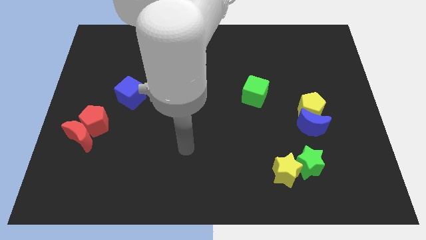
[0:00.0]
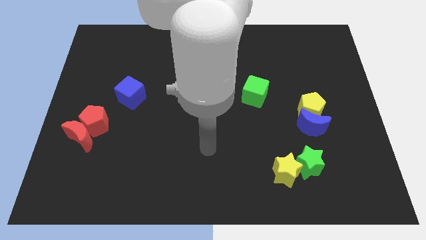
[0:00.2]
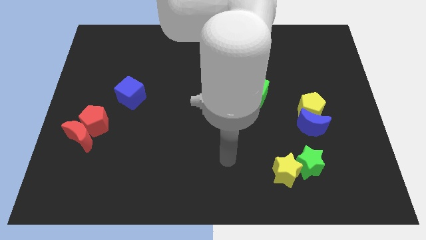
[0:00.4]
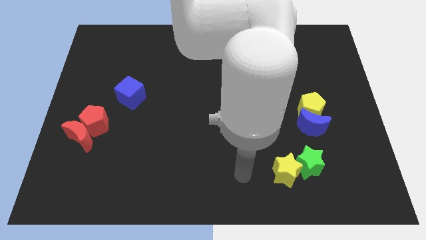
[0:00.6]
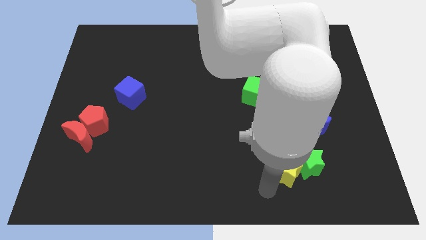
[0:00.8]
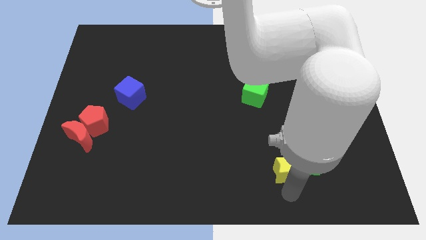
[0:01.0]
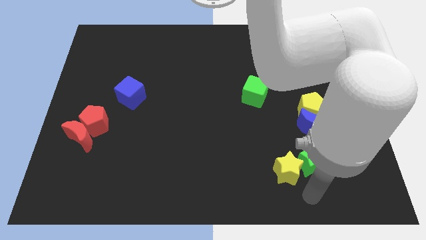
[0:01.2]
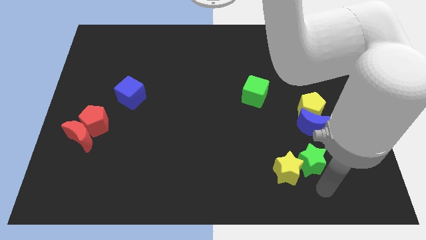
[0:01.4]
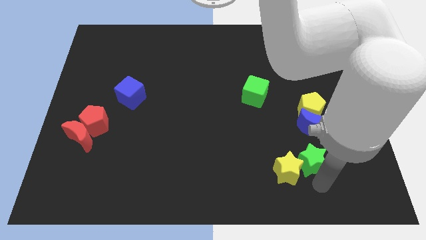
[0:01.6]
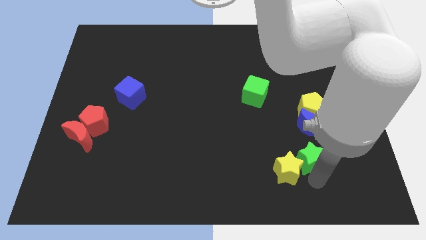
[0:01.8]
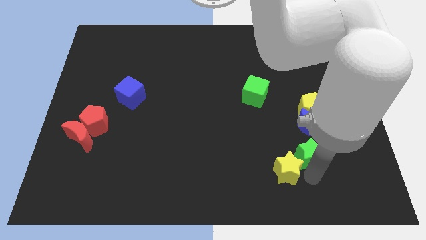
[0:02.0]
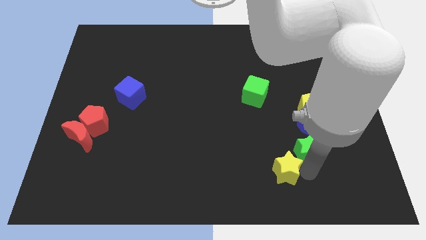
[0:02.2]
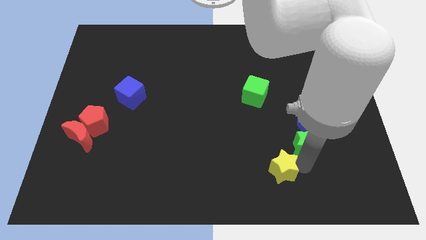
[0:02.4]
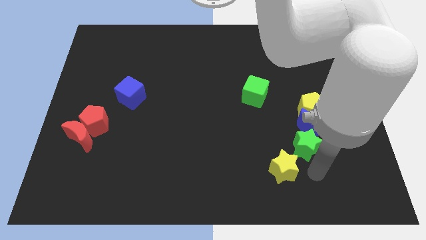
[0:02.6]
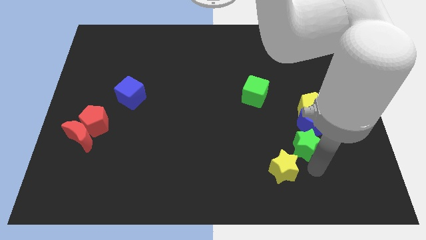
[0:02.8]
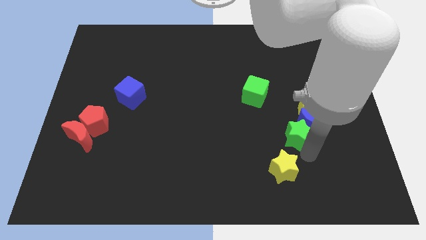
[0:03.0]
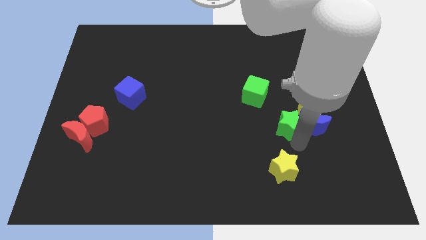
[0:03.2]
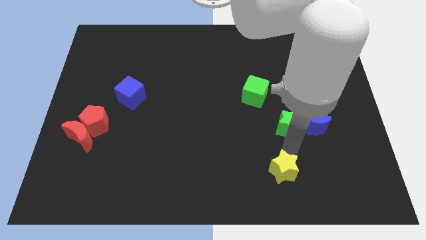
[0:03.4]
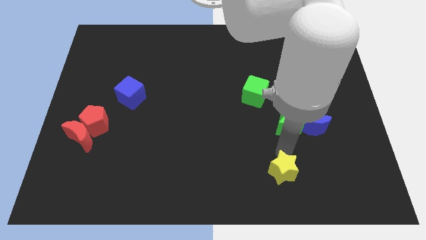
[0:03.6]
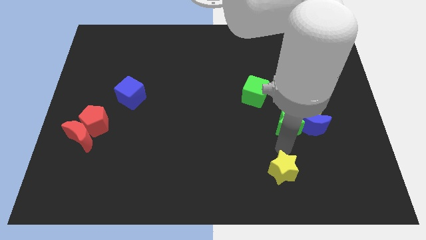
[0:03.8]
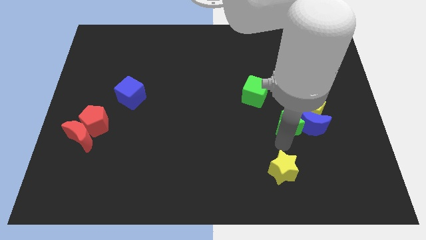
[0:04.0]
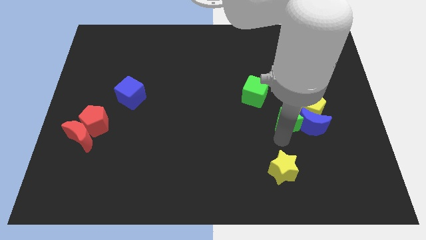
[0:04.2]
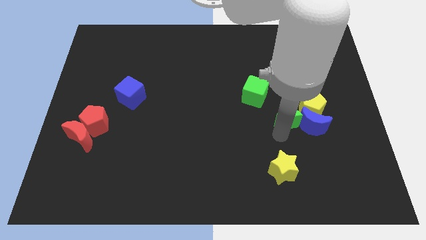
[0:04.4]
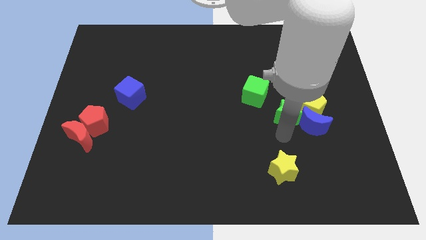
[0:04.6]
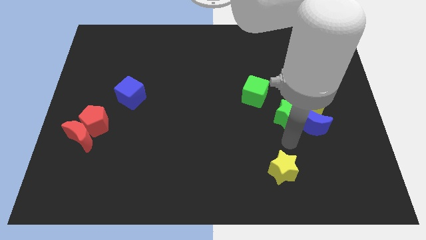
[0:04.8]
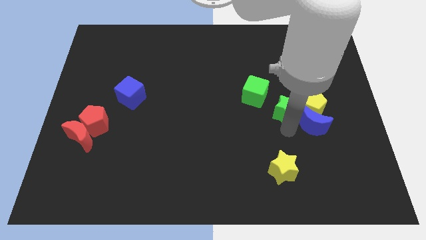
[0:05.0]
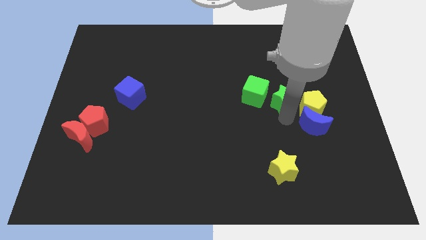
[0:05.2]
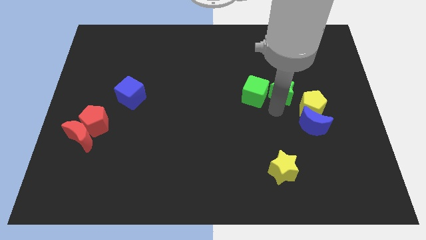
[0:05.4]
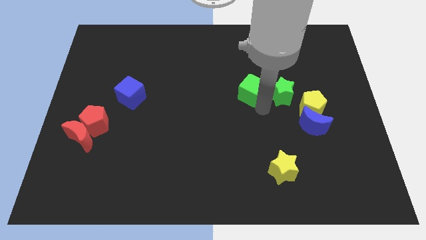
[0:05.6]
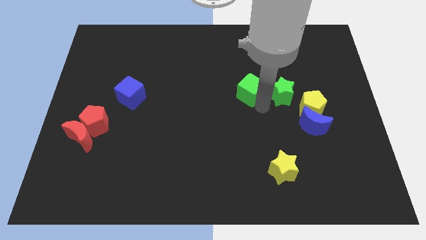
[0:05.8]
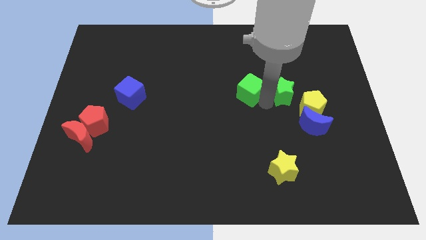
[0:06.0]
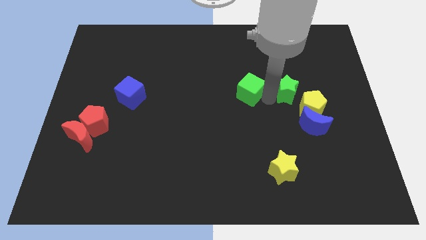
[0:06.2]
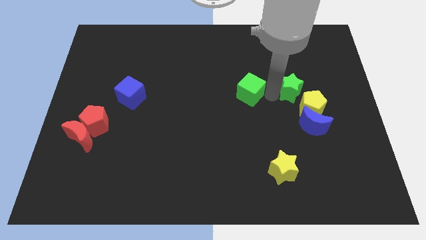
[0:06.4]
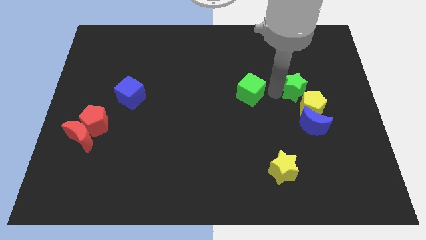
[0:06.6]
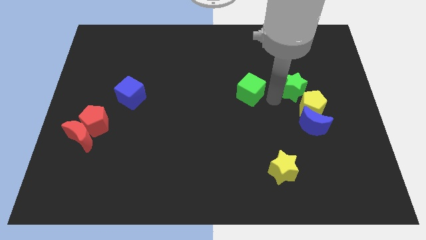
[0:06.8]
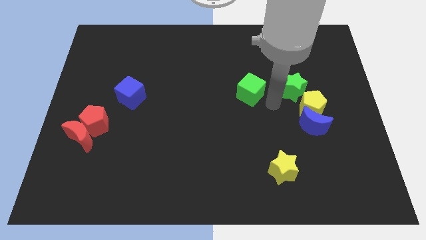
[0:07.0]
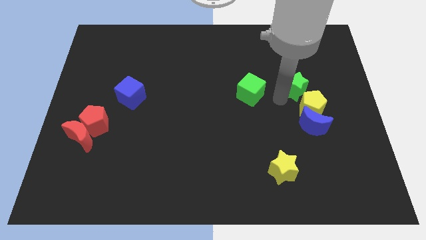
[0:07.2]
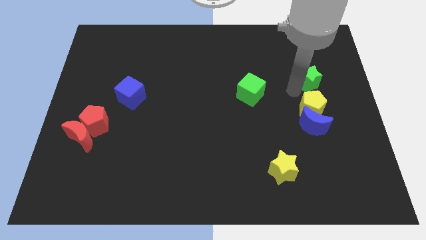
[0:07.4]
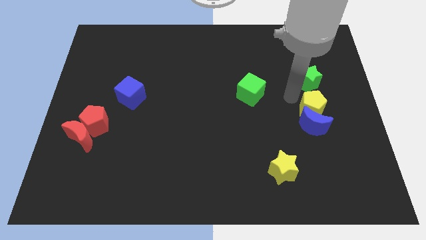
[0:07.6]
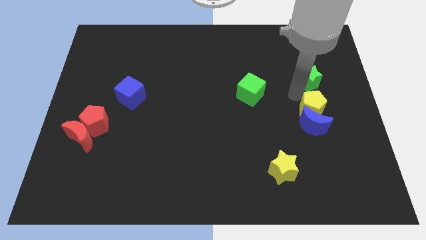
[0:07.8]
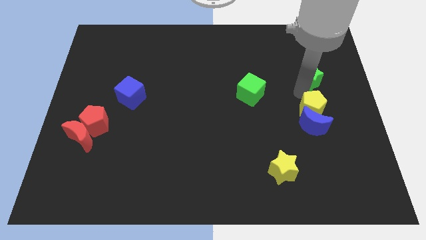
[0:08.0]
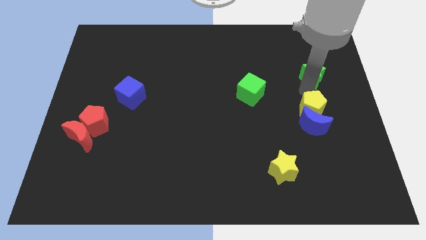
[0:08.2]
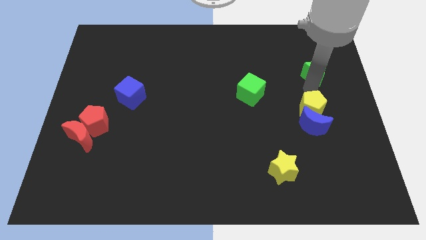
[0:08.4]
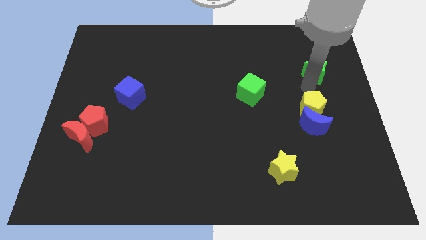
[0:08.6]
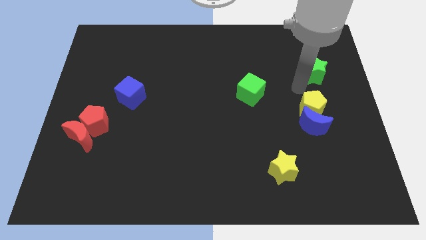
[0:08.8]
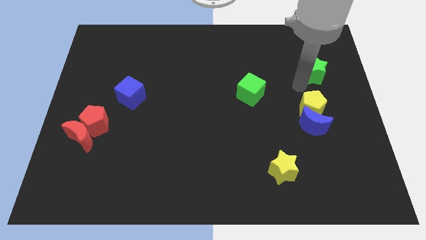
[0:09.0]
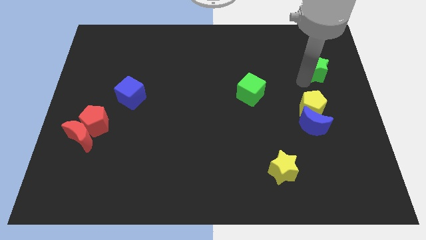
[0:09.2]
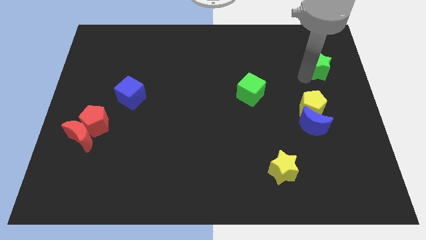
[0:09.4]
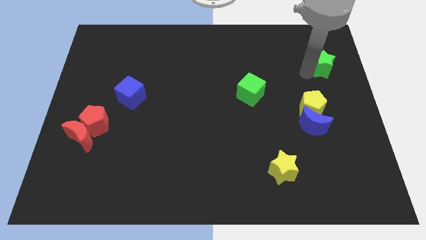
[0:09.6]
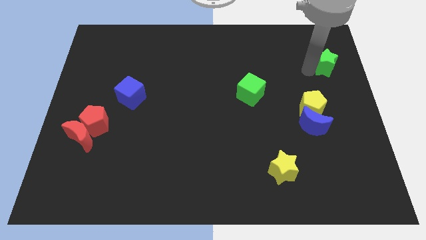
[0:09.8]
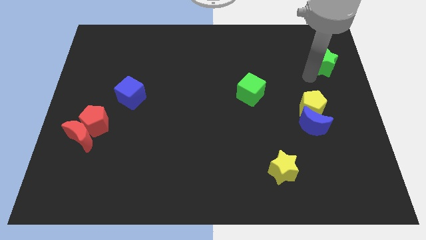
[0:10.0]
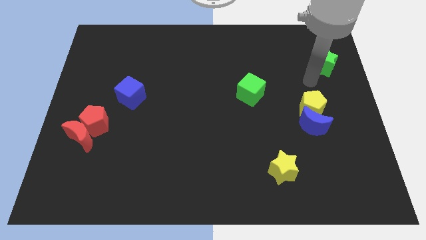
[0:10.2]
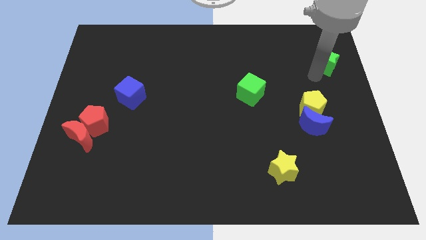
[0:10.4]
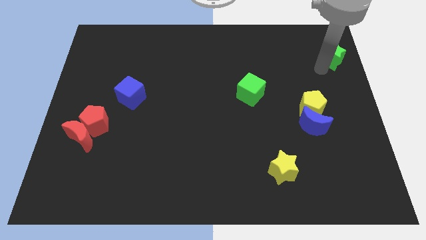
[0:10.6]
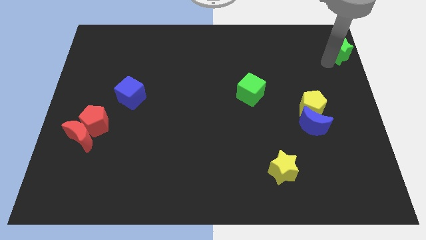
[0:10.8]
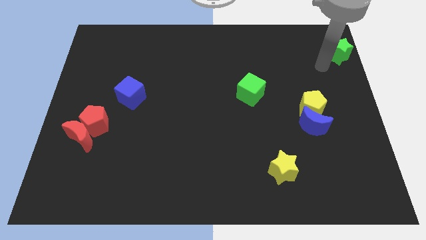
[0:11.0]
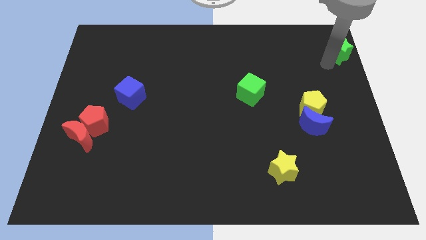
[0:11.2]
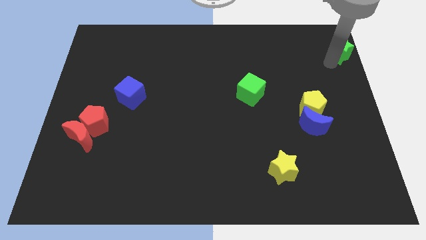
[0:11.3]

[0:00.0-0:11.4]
push the green star to the upper right corner
